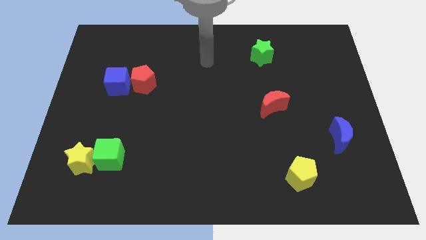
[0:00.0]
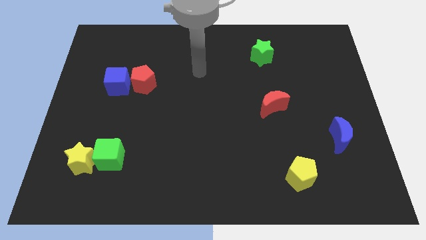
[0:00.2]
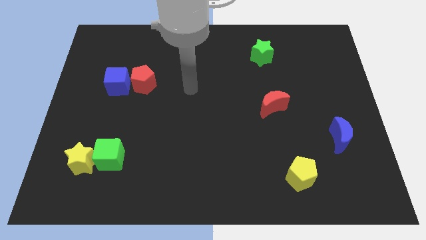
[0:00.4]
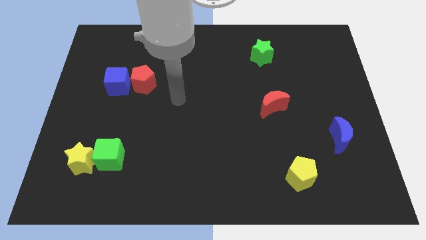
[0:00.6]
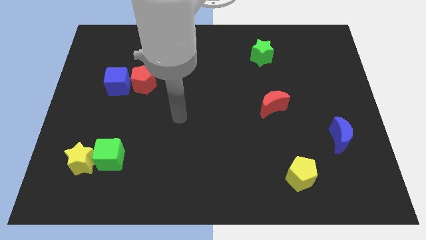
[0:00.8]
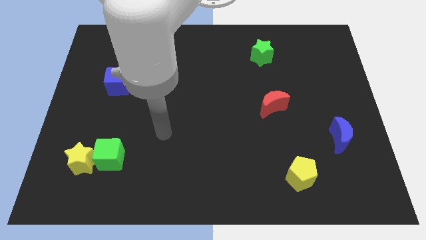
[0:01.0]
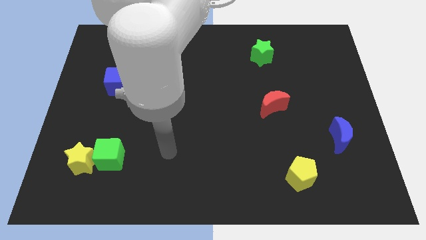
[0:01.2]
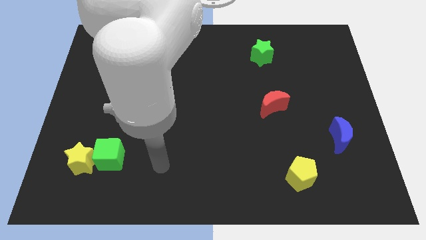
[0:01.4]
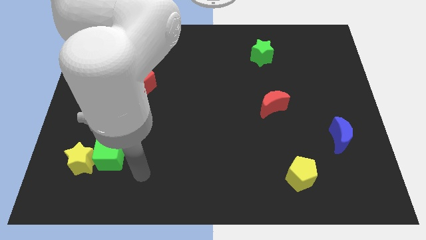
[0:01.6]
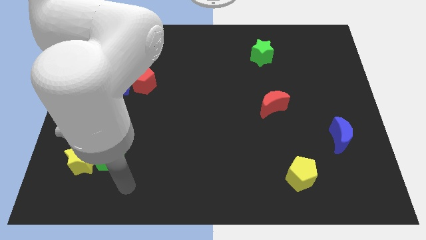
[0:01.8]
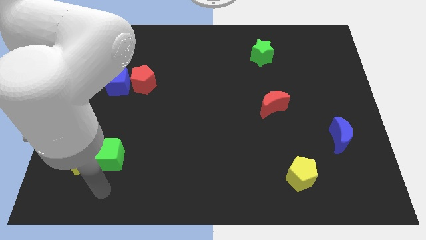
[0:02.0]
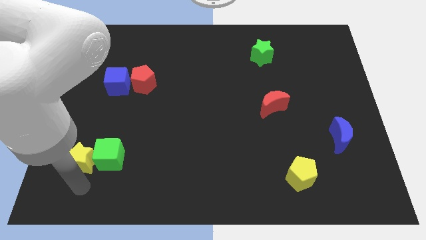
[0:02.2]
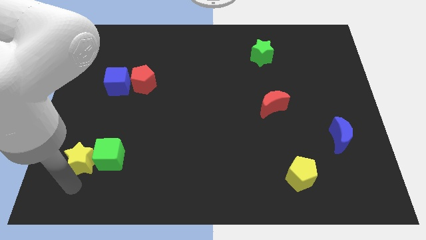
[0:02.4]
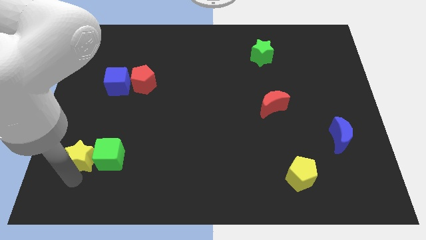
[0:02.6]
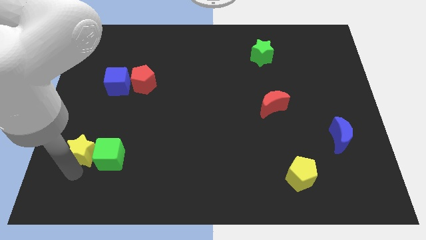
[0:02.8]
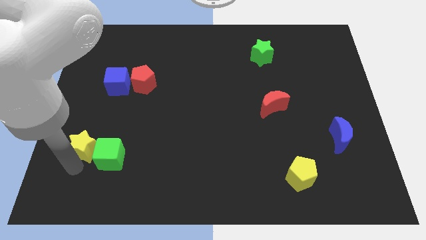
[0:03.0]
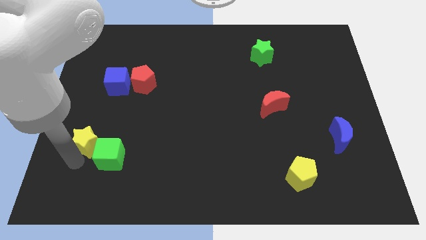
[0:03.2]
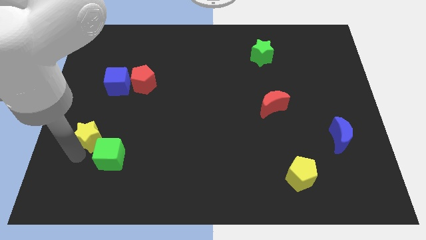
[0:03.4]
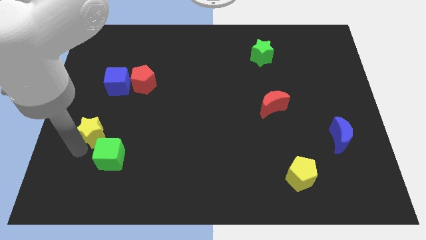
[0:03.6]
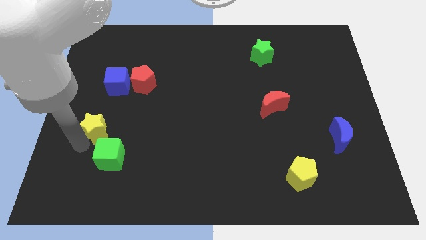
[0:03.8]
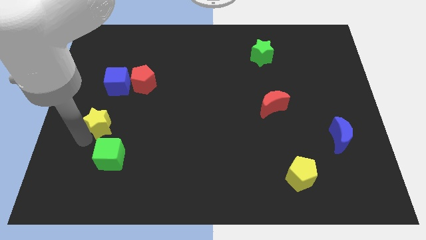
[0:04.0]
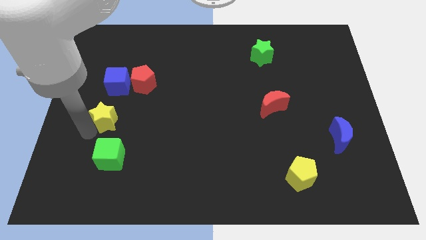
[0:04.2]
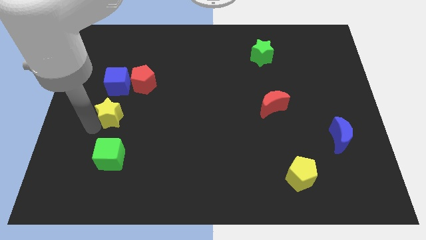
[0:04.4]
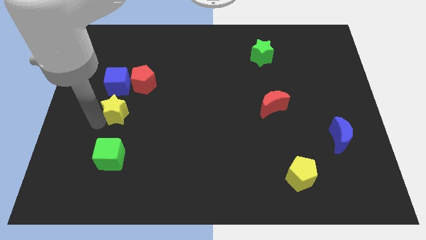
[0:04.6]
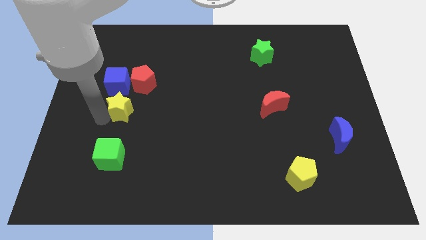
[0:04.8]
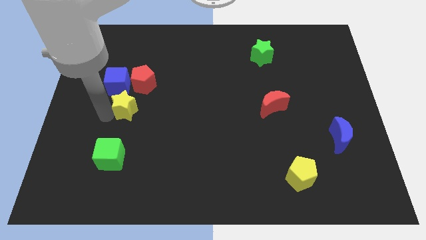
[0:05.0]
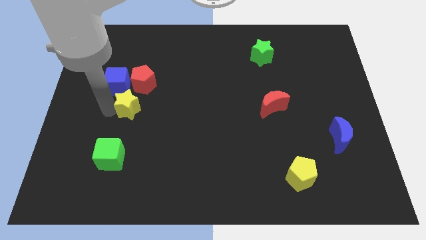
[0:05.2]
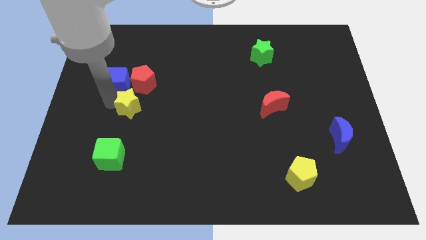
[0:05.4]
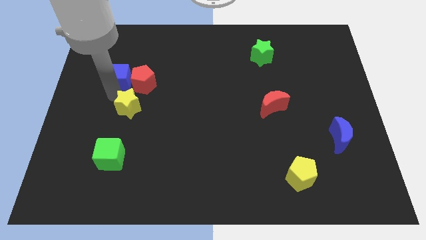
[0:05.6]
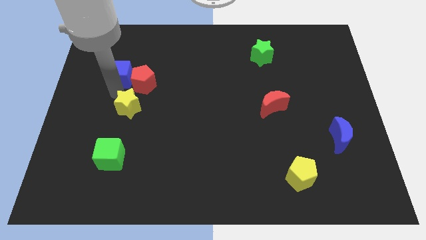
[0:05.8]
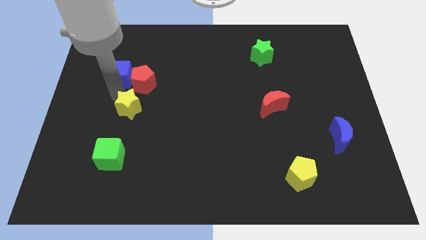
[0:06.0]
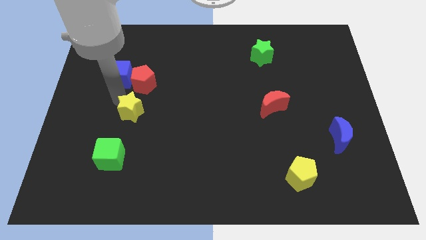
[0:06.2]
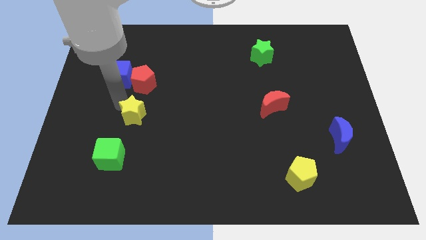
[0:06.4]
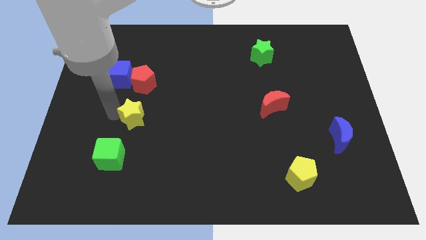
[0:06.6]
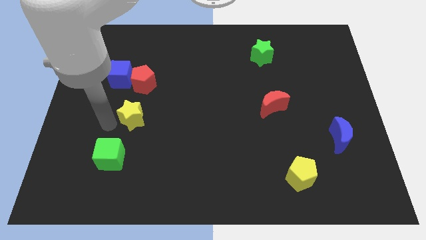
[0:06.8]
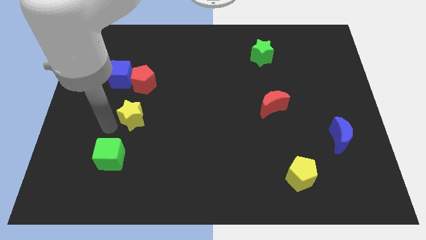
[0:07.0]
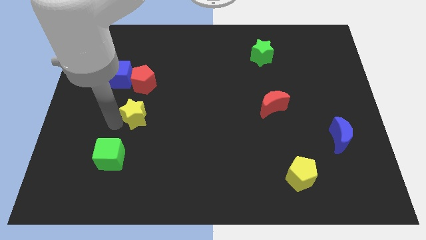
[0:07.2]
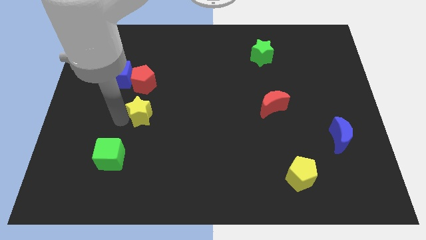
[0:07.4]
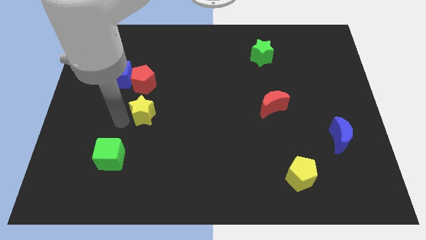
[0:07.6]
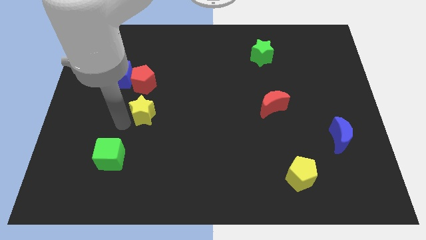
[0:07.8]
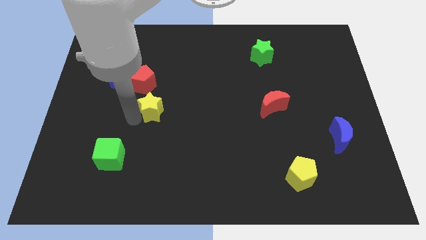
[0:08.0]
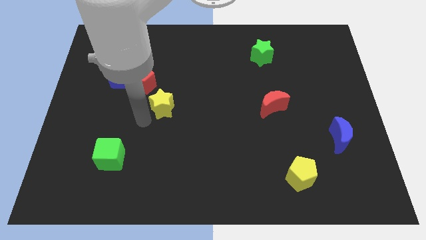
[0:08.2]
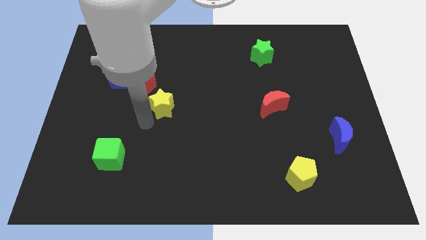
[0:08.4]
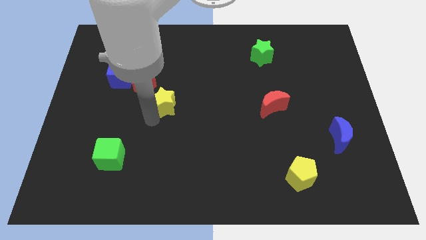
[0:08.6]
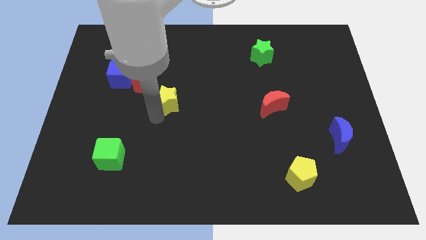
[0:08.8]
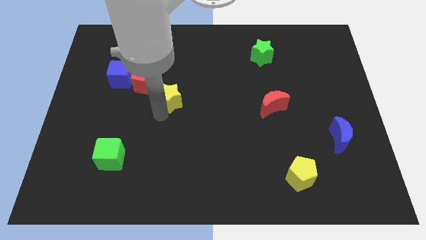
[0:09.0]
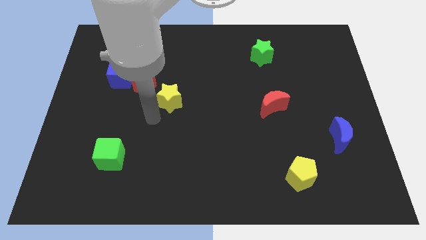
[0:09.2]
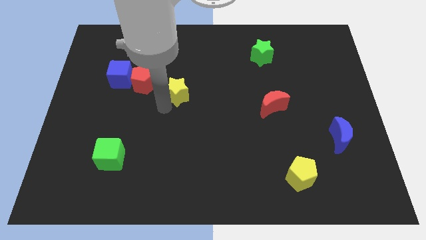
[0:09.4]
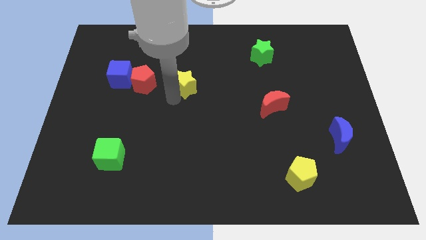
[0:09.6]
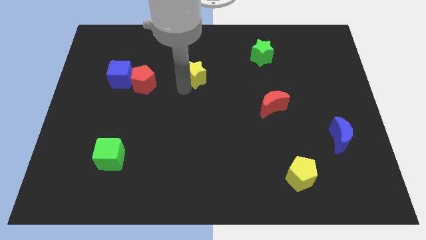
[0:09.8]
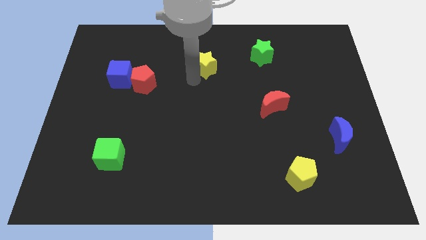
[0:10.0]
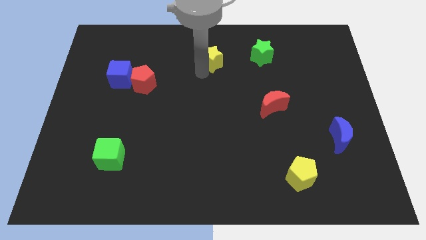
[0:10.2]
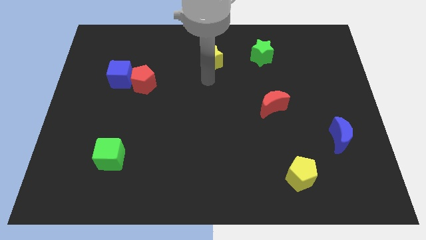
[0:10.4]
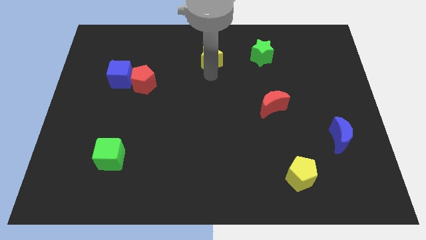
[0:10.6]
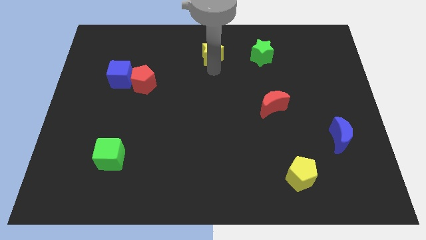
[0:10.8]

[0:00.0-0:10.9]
put the yellow star to the top side

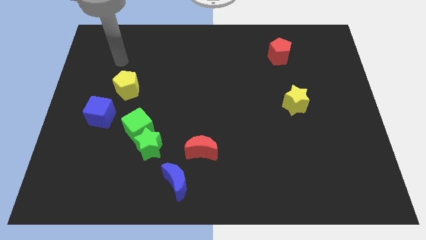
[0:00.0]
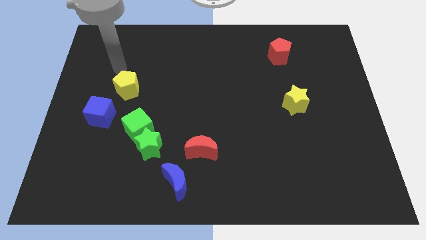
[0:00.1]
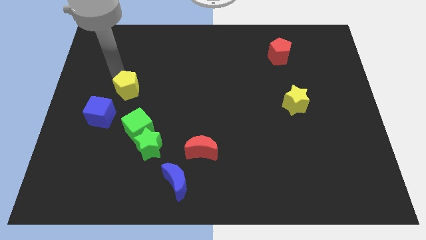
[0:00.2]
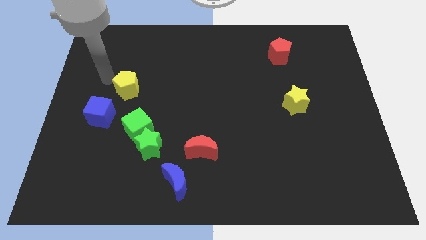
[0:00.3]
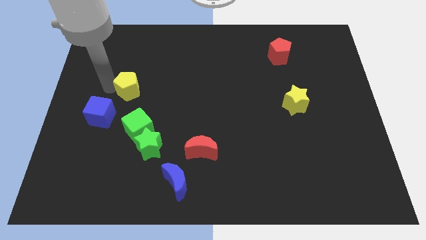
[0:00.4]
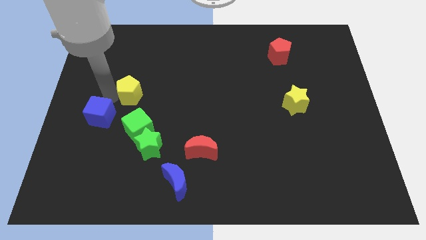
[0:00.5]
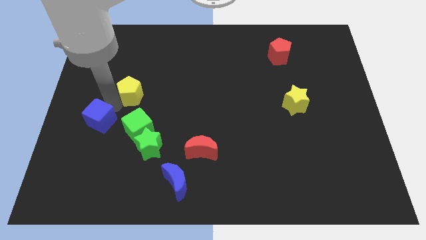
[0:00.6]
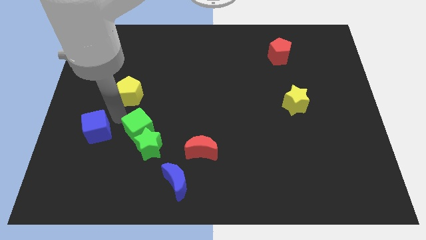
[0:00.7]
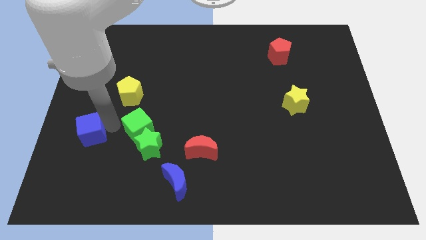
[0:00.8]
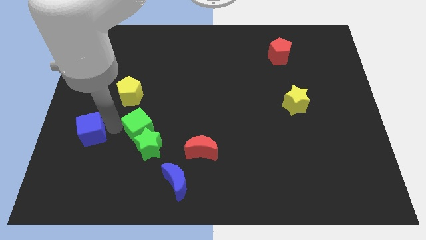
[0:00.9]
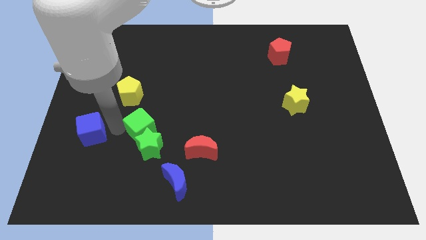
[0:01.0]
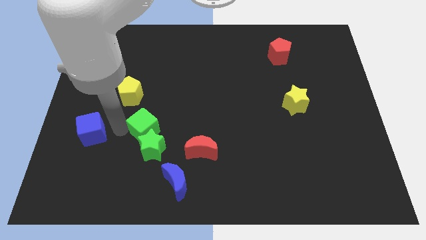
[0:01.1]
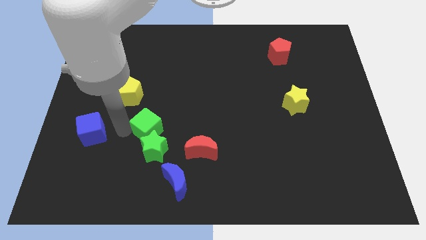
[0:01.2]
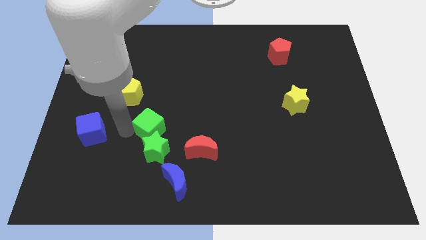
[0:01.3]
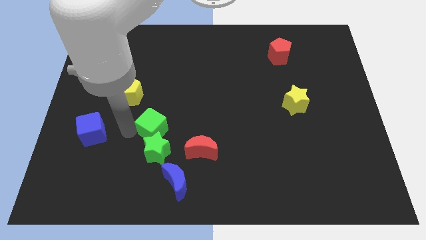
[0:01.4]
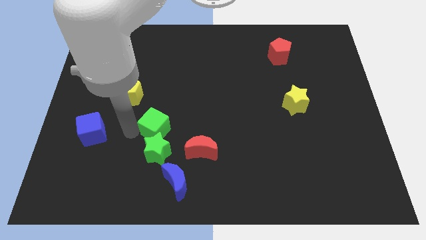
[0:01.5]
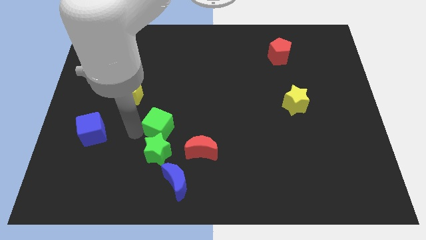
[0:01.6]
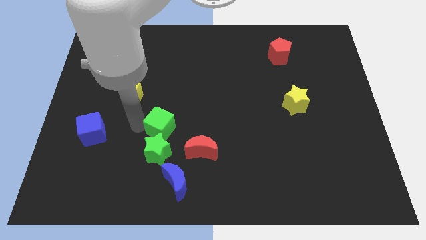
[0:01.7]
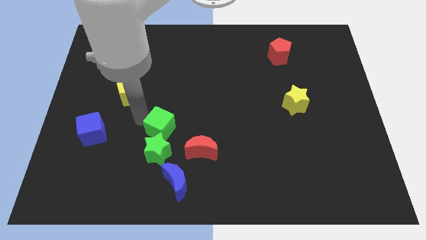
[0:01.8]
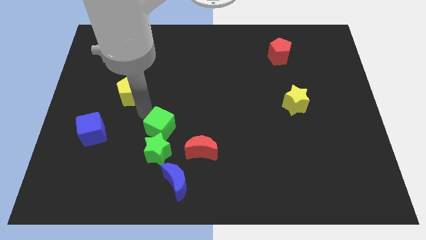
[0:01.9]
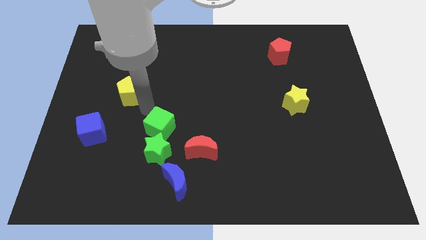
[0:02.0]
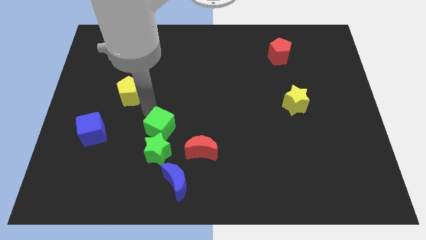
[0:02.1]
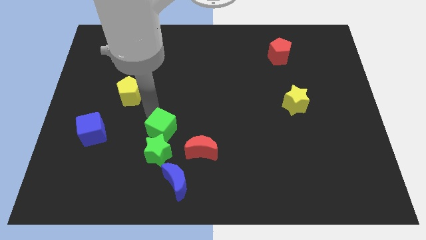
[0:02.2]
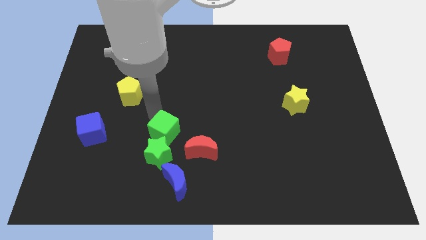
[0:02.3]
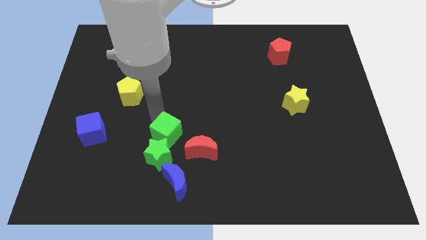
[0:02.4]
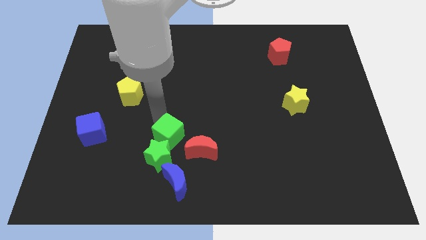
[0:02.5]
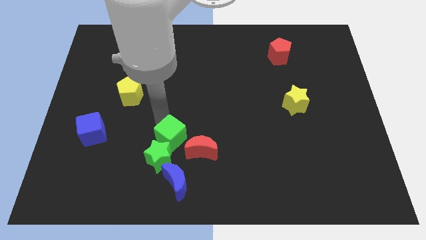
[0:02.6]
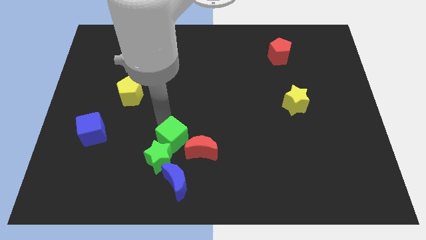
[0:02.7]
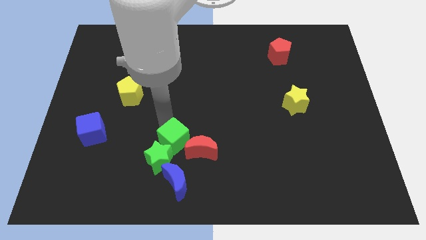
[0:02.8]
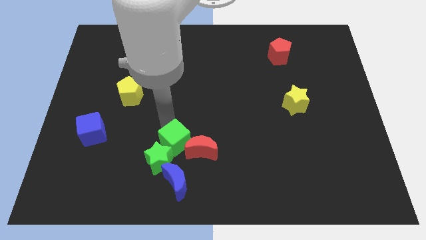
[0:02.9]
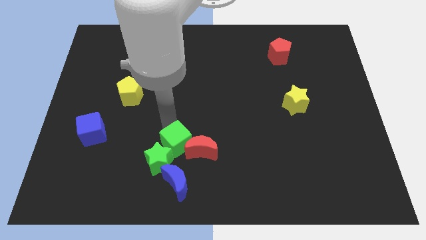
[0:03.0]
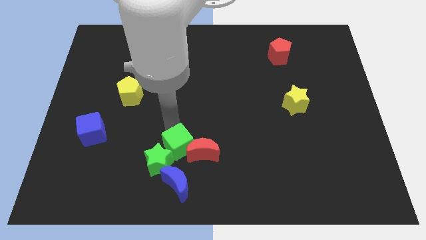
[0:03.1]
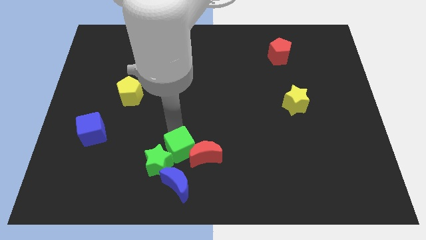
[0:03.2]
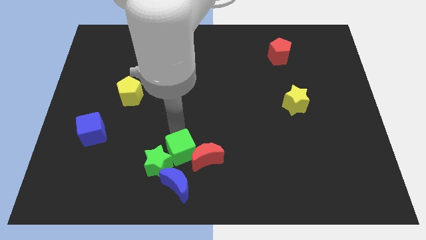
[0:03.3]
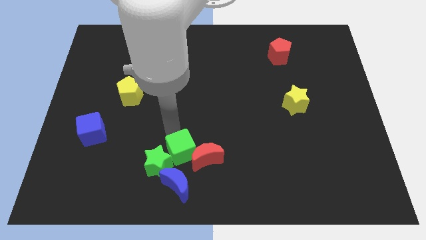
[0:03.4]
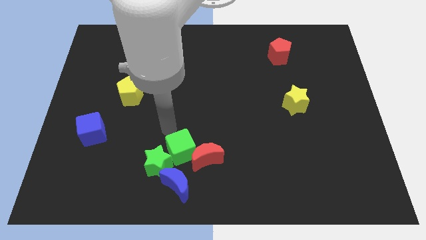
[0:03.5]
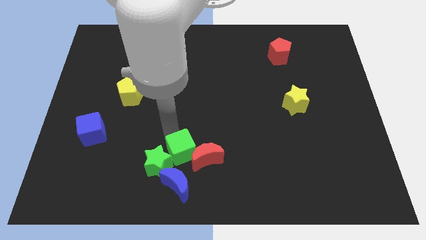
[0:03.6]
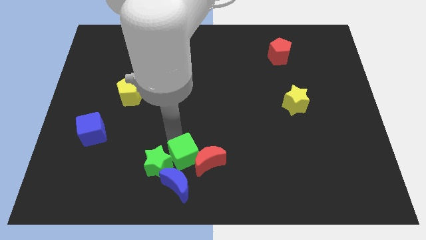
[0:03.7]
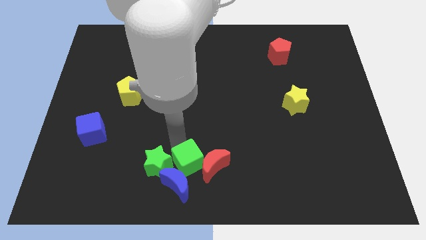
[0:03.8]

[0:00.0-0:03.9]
move the green cube to the bottom
